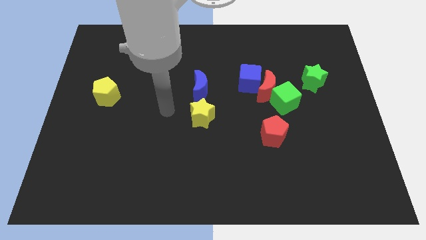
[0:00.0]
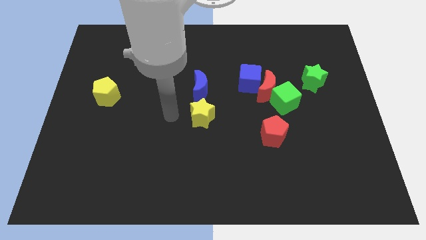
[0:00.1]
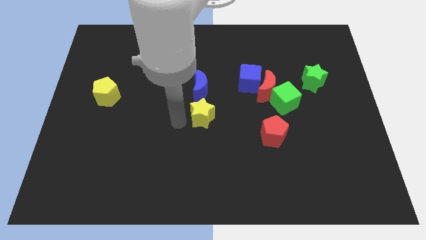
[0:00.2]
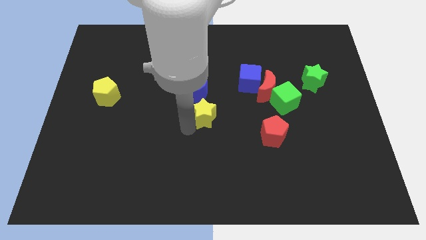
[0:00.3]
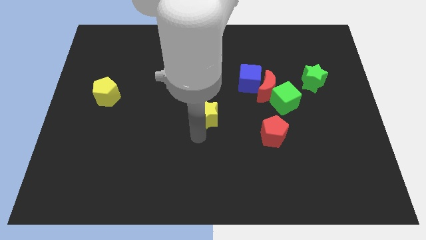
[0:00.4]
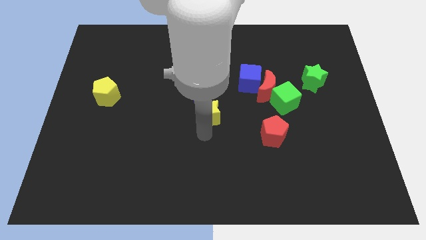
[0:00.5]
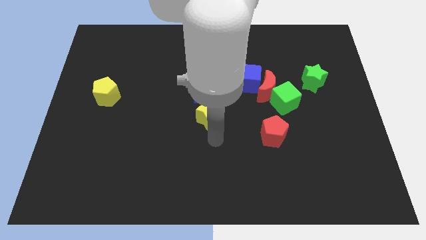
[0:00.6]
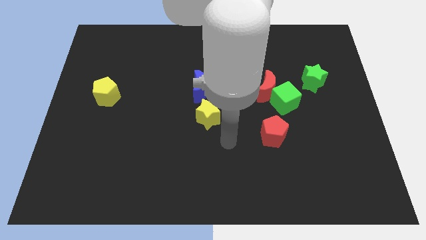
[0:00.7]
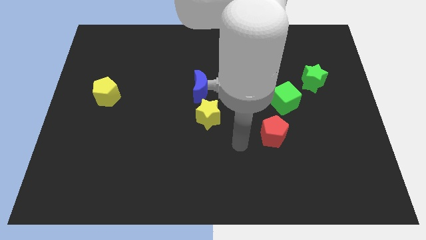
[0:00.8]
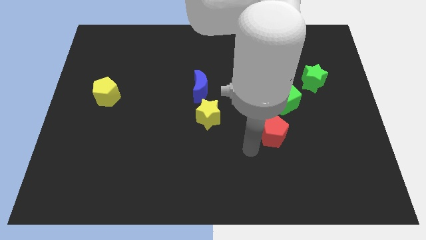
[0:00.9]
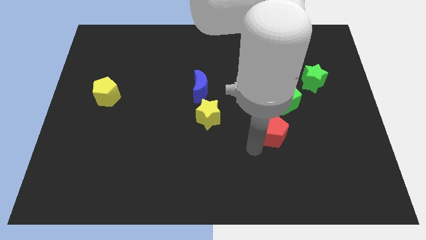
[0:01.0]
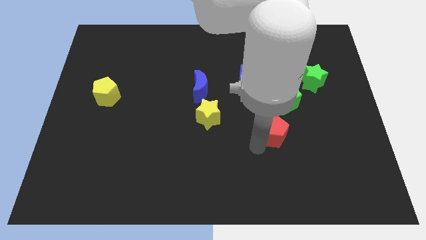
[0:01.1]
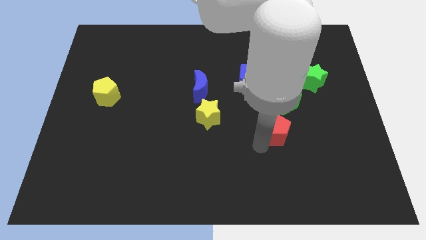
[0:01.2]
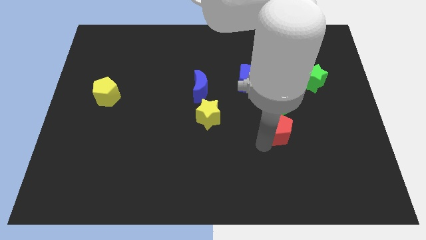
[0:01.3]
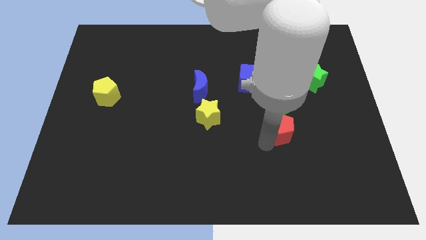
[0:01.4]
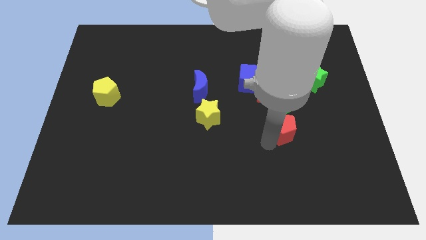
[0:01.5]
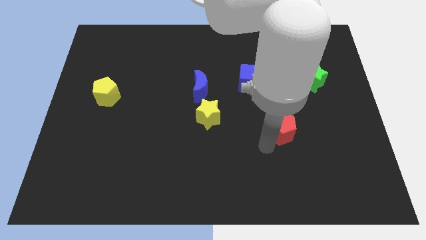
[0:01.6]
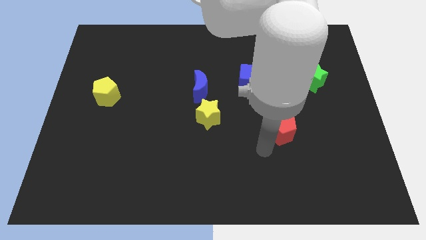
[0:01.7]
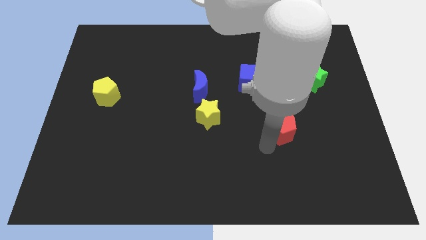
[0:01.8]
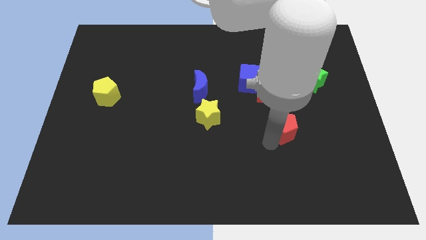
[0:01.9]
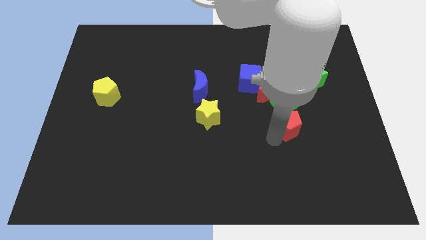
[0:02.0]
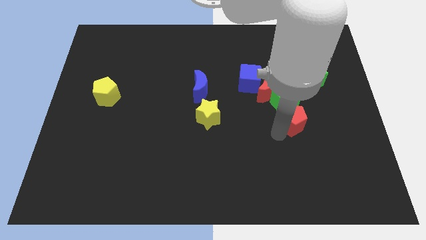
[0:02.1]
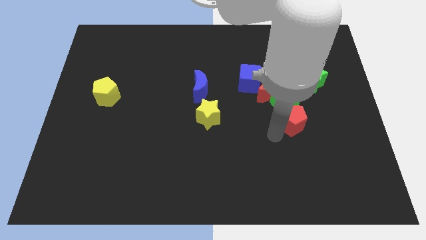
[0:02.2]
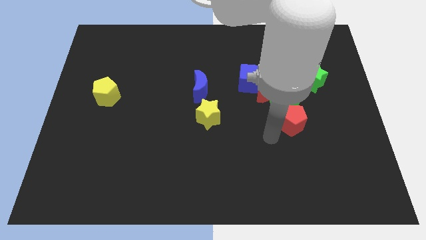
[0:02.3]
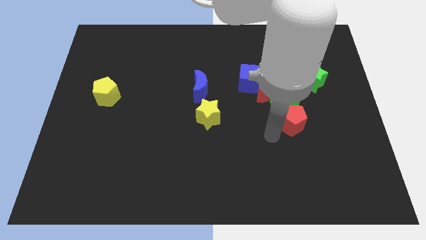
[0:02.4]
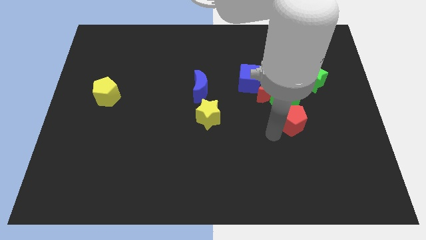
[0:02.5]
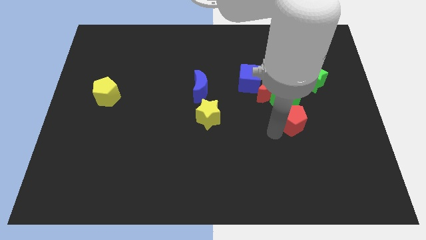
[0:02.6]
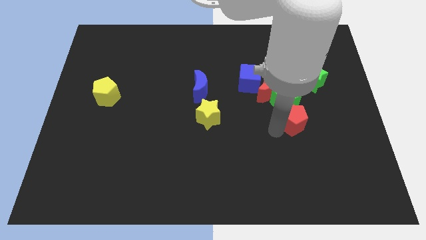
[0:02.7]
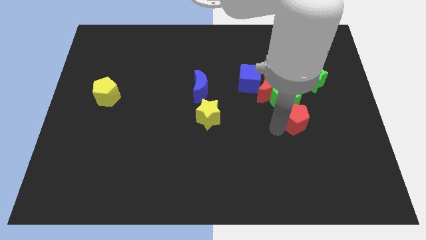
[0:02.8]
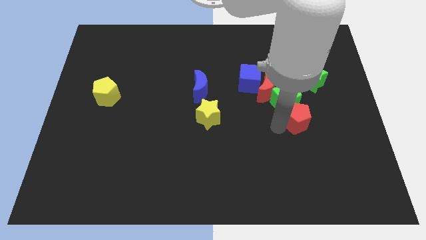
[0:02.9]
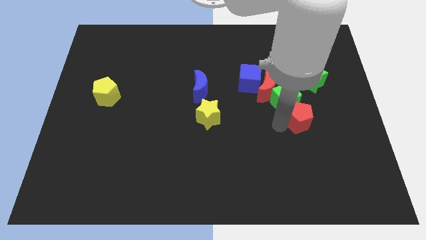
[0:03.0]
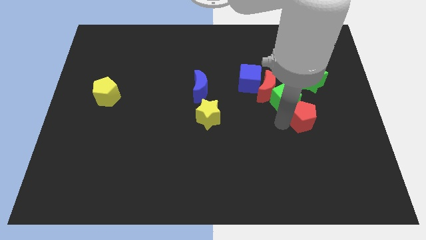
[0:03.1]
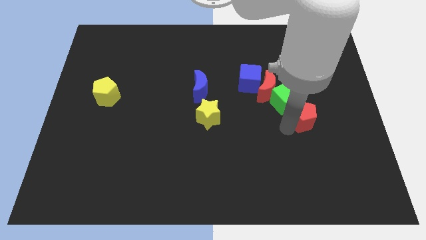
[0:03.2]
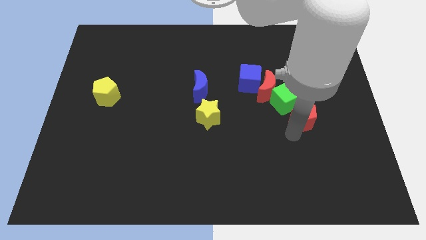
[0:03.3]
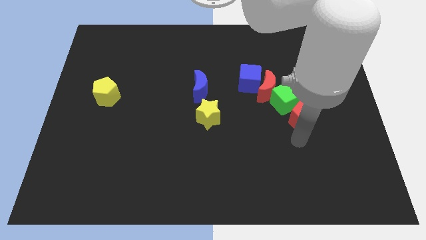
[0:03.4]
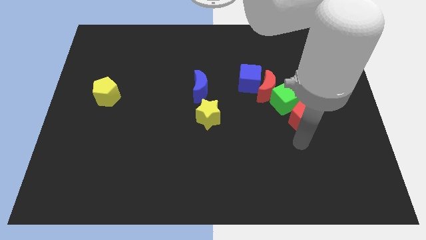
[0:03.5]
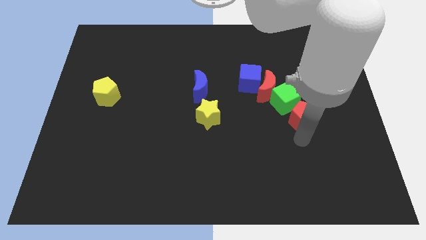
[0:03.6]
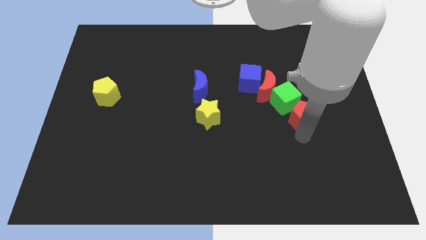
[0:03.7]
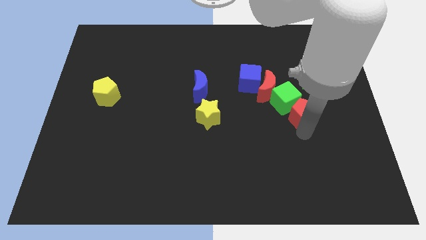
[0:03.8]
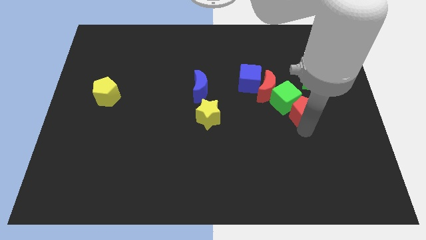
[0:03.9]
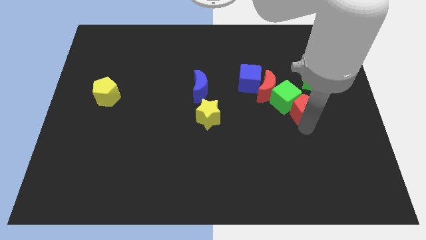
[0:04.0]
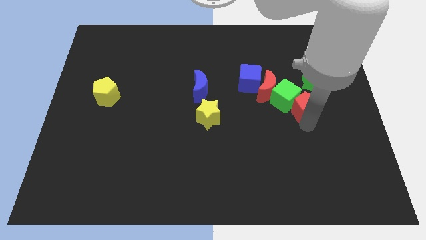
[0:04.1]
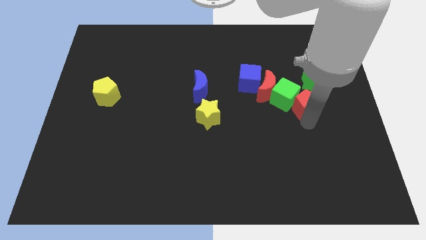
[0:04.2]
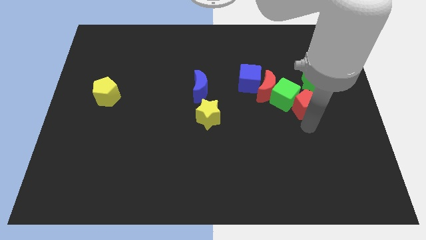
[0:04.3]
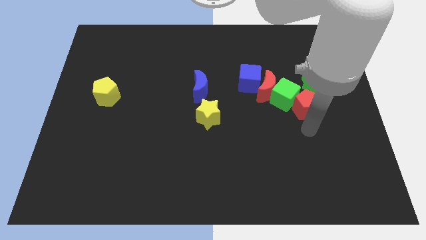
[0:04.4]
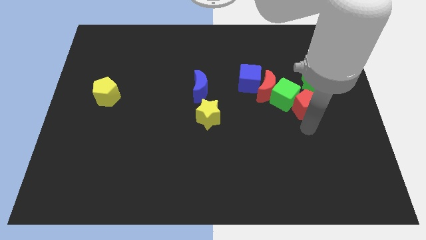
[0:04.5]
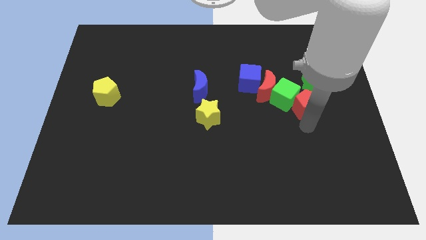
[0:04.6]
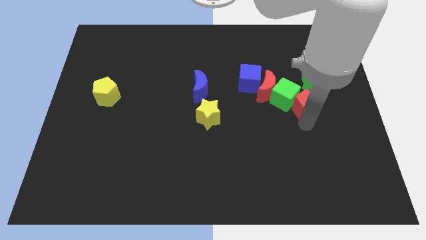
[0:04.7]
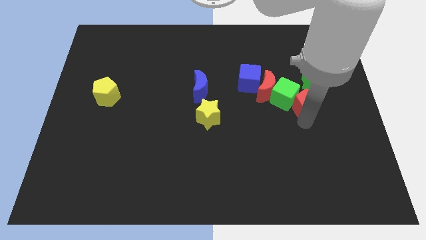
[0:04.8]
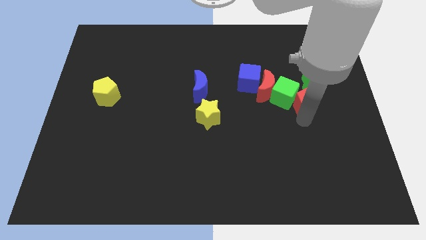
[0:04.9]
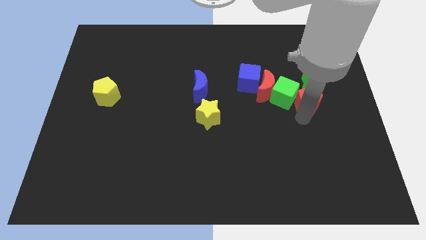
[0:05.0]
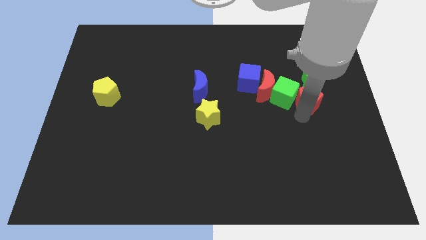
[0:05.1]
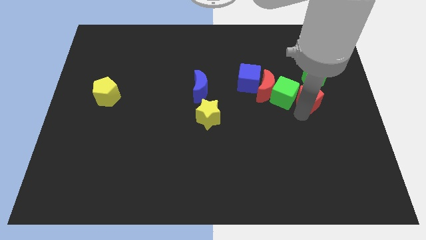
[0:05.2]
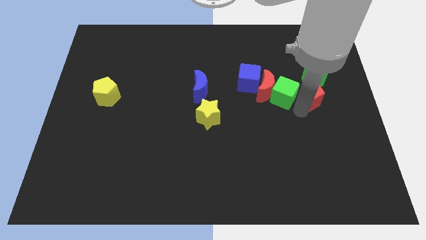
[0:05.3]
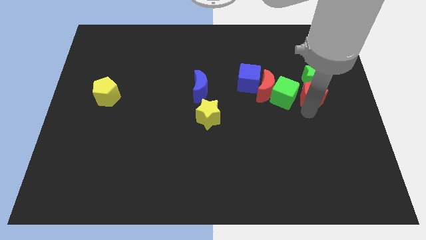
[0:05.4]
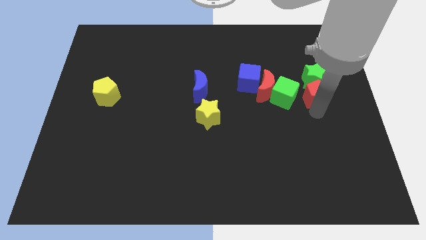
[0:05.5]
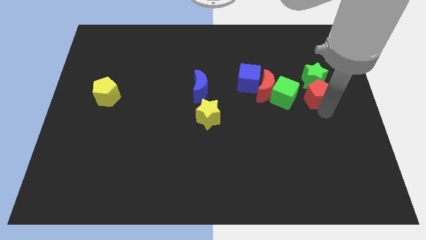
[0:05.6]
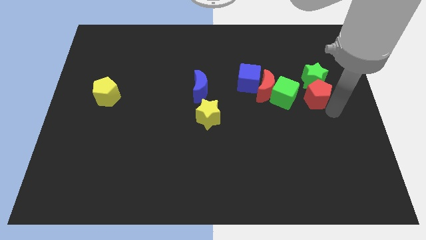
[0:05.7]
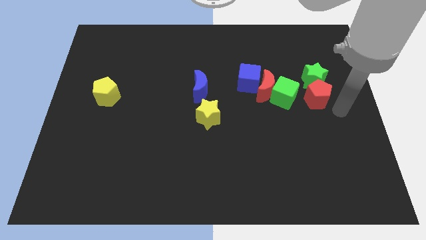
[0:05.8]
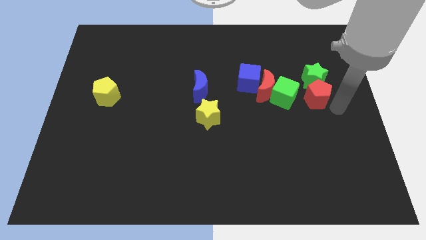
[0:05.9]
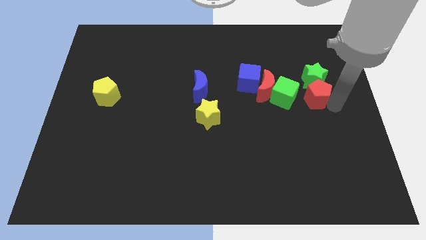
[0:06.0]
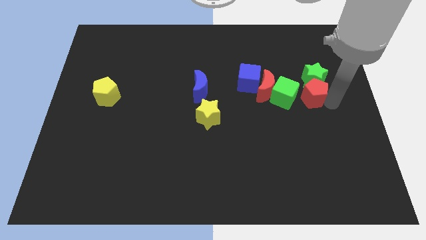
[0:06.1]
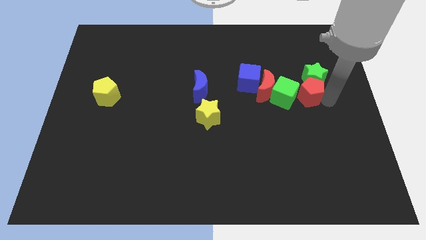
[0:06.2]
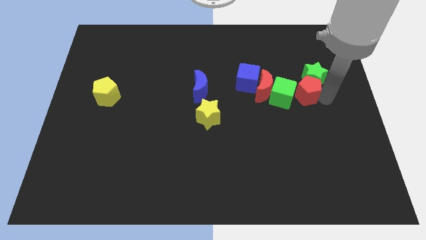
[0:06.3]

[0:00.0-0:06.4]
slide the red pentagon somewhat up

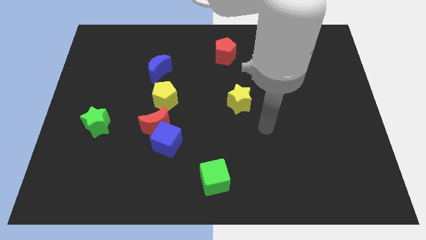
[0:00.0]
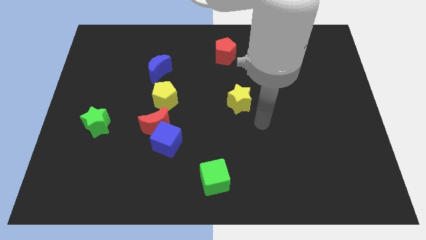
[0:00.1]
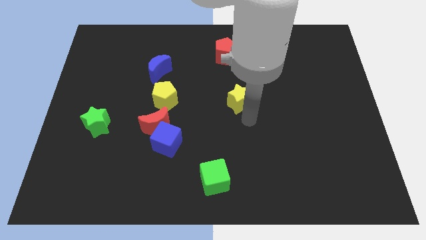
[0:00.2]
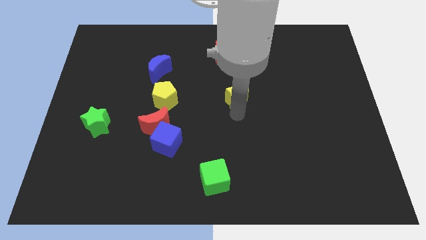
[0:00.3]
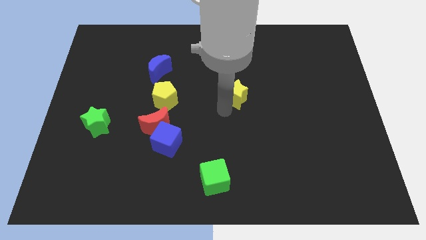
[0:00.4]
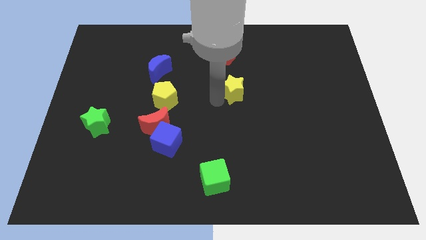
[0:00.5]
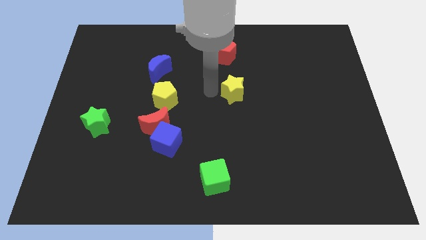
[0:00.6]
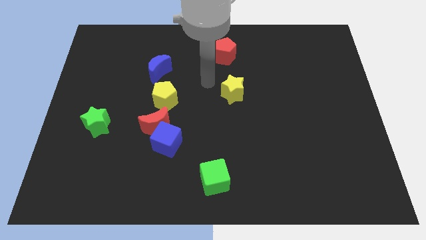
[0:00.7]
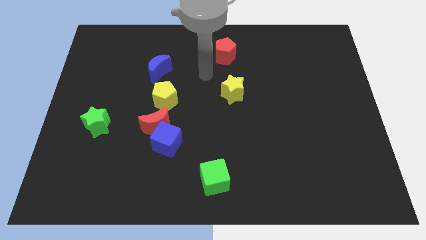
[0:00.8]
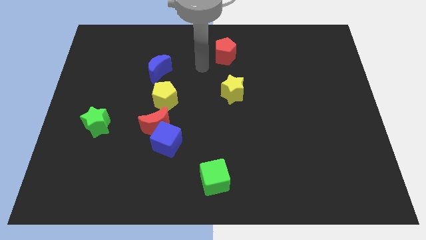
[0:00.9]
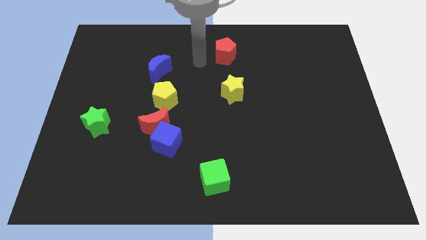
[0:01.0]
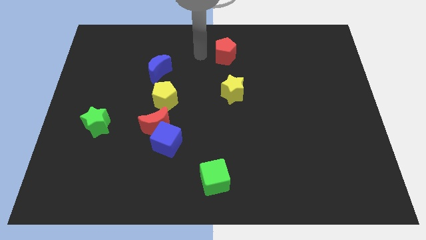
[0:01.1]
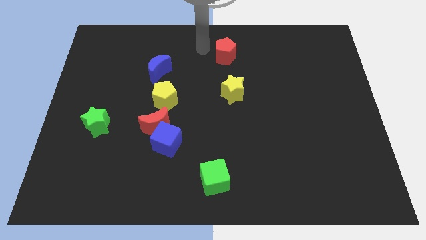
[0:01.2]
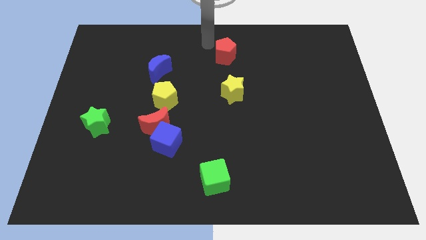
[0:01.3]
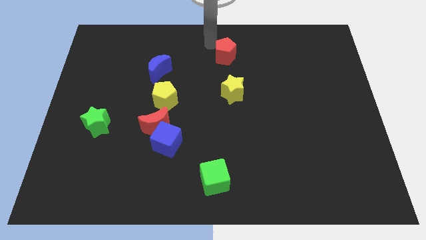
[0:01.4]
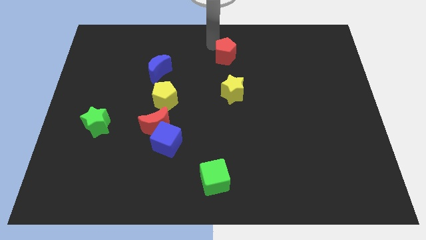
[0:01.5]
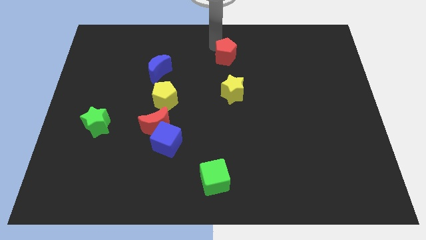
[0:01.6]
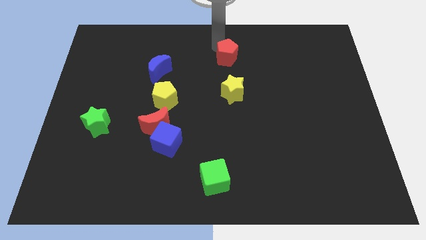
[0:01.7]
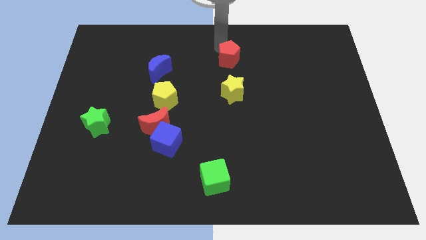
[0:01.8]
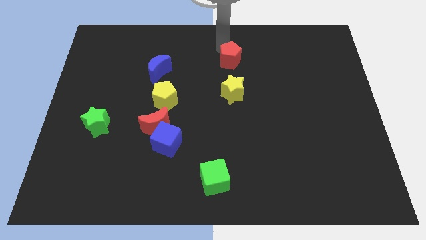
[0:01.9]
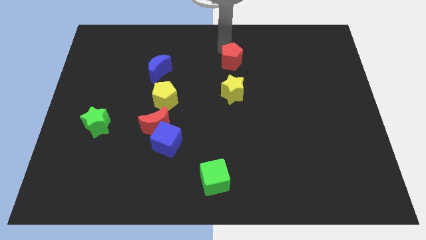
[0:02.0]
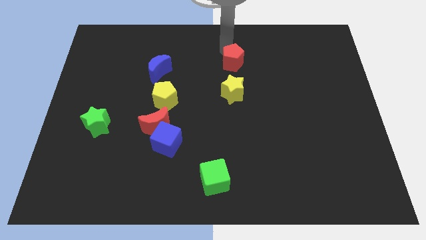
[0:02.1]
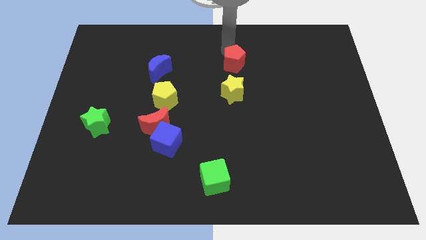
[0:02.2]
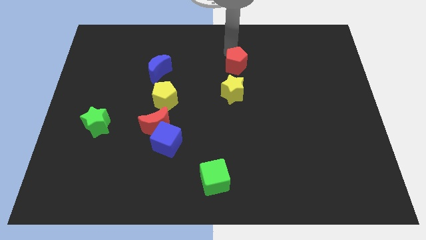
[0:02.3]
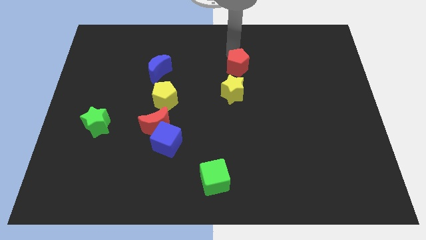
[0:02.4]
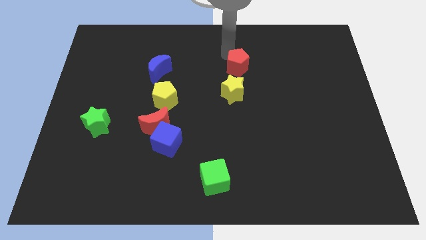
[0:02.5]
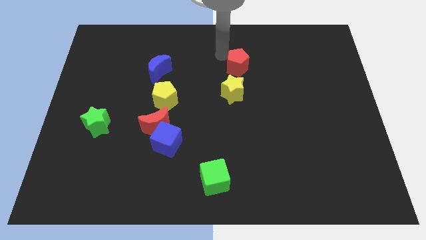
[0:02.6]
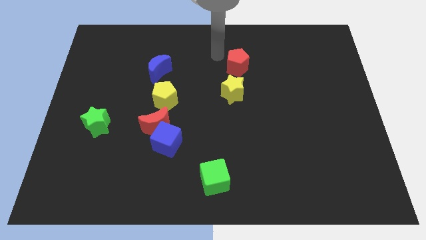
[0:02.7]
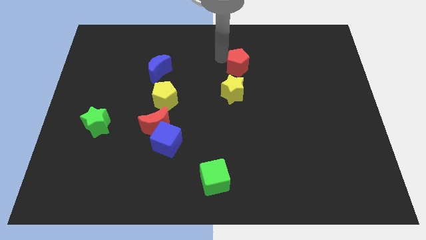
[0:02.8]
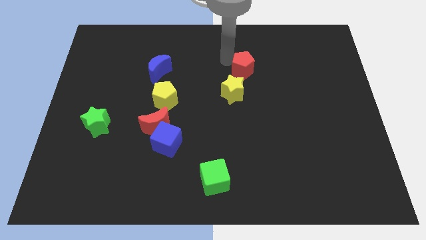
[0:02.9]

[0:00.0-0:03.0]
push the red pentagon down and right diagonally a bit
